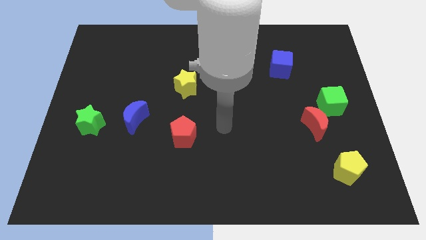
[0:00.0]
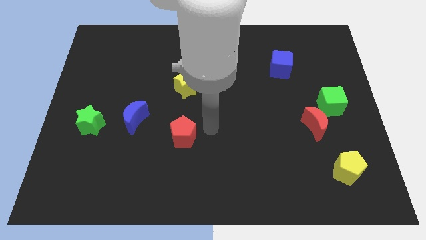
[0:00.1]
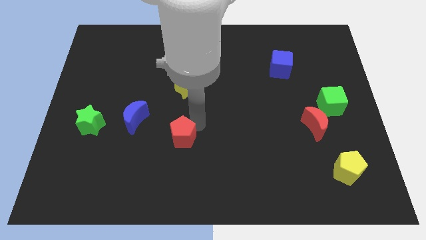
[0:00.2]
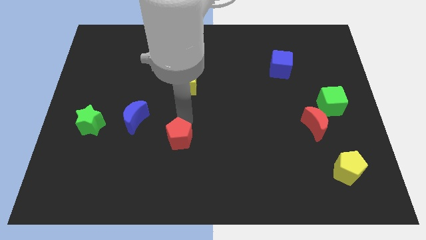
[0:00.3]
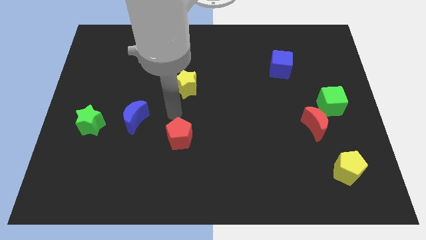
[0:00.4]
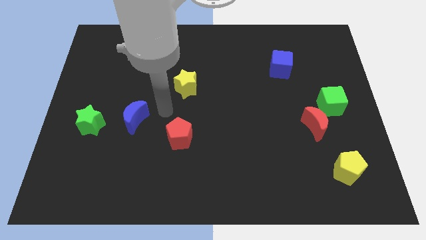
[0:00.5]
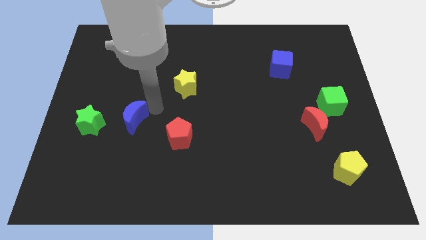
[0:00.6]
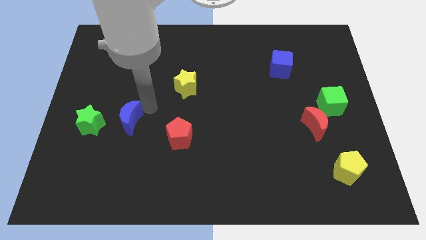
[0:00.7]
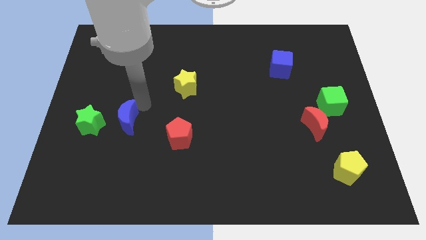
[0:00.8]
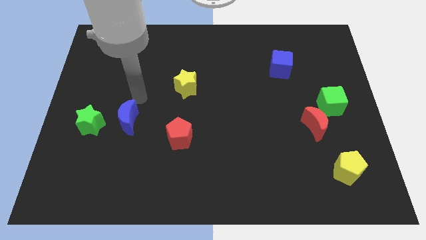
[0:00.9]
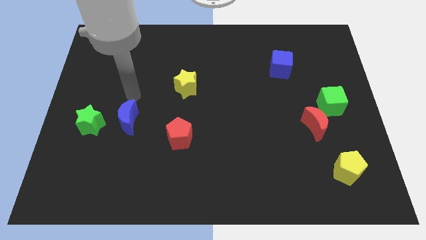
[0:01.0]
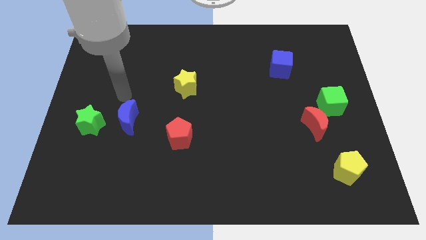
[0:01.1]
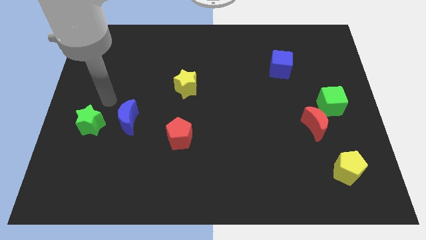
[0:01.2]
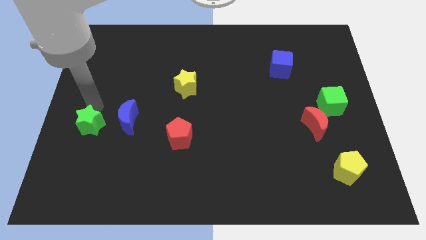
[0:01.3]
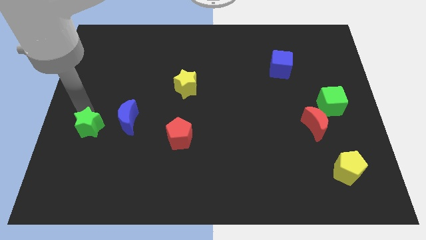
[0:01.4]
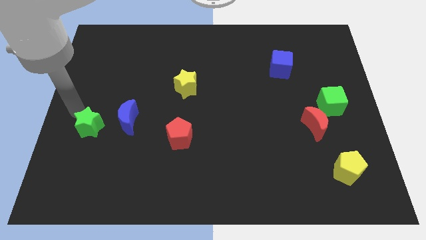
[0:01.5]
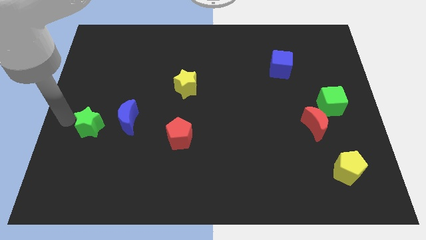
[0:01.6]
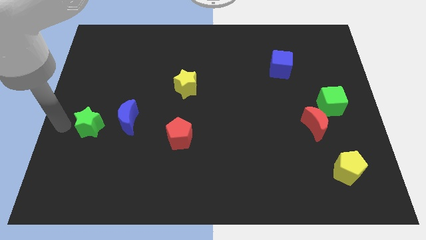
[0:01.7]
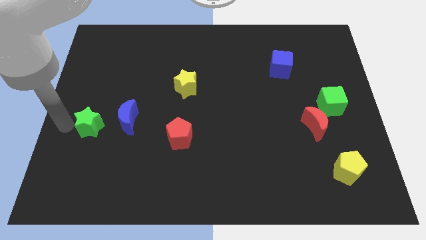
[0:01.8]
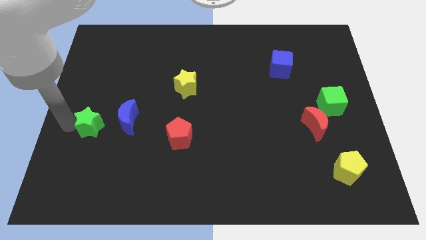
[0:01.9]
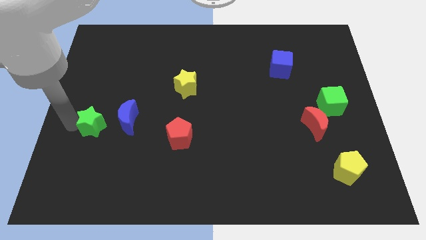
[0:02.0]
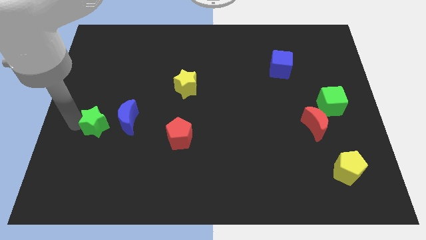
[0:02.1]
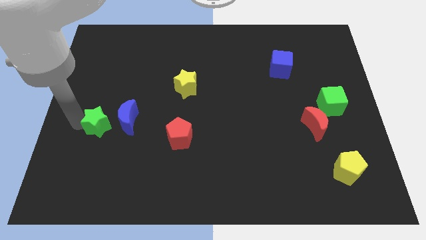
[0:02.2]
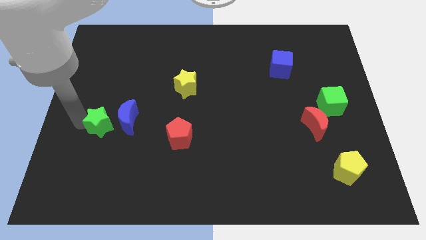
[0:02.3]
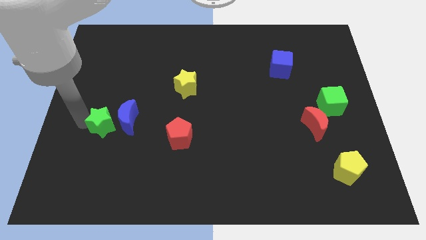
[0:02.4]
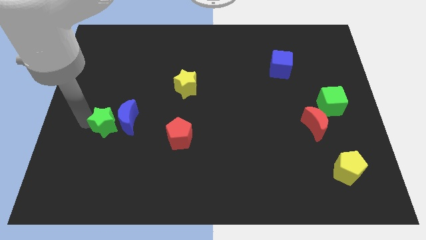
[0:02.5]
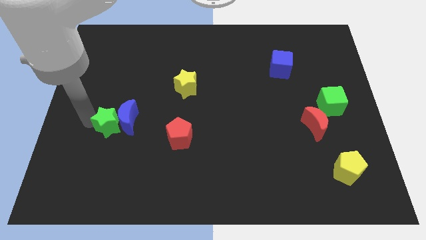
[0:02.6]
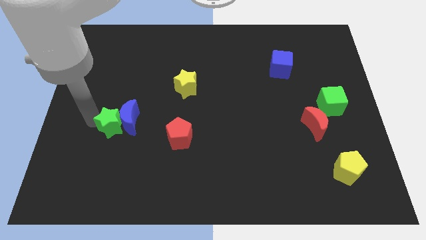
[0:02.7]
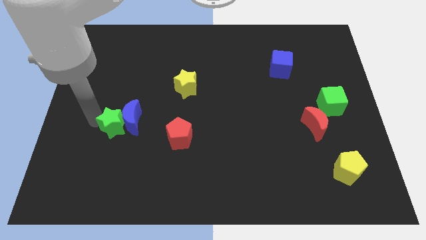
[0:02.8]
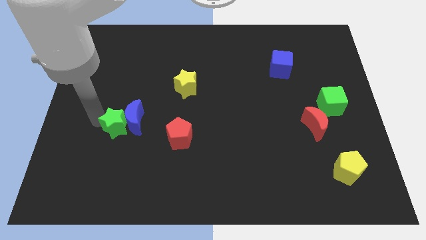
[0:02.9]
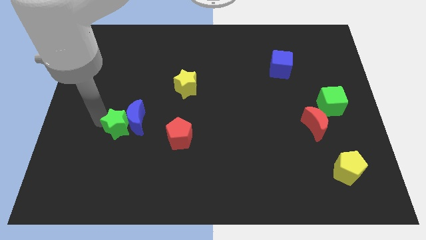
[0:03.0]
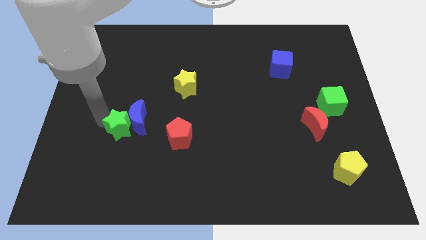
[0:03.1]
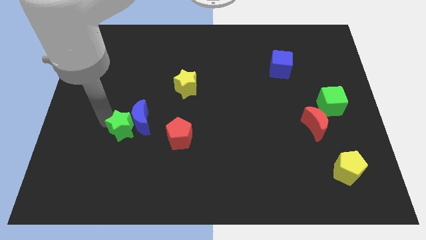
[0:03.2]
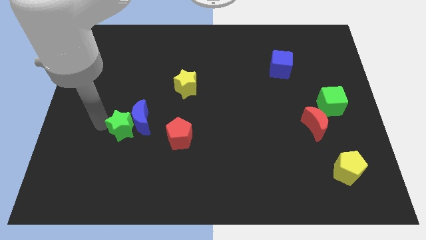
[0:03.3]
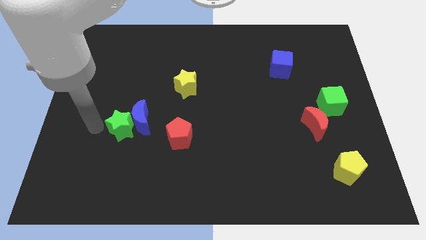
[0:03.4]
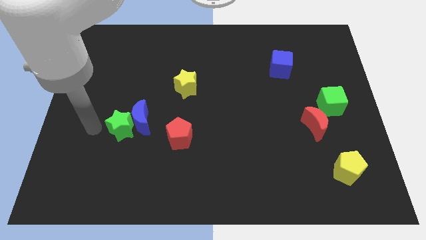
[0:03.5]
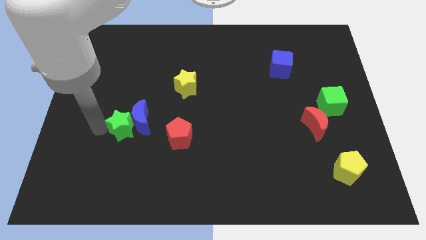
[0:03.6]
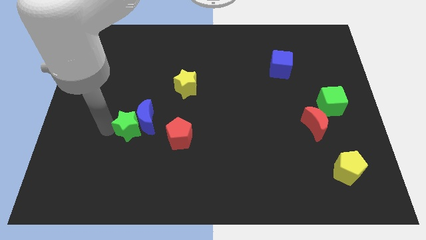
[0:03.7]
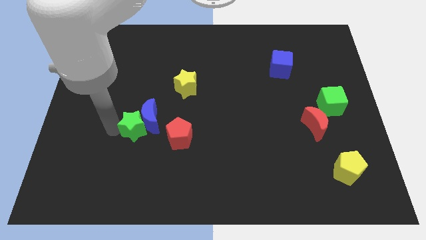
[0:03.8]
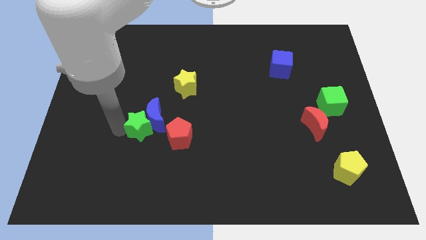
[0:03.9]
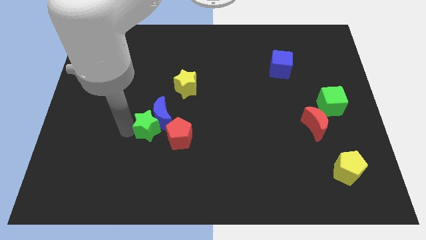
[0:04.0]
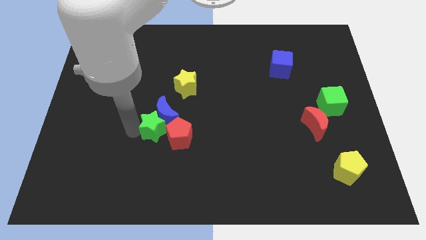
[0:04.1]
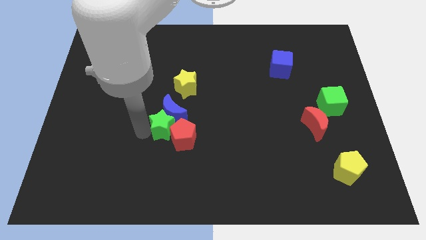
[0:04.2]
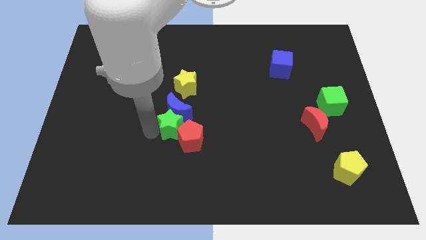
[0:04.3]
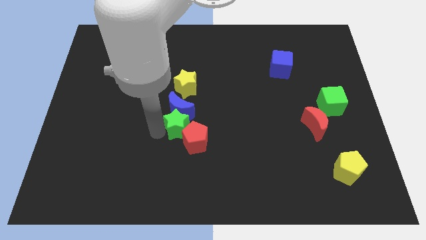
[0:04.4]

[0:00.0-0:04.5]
slide the green star to the right

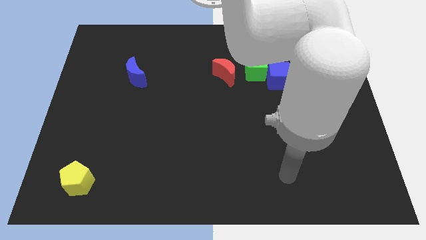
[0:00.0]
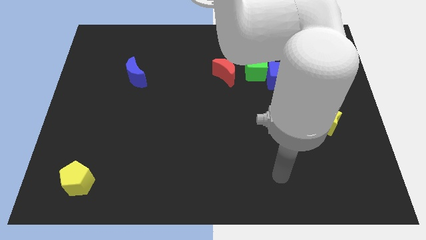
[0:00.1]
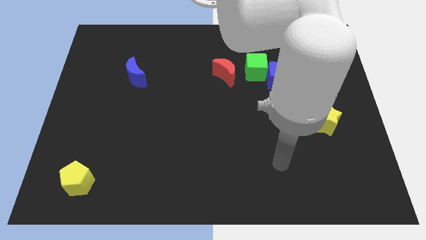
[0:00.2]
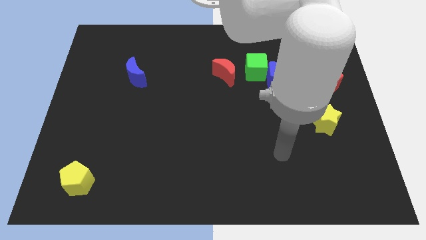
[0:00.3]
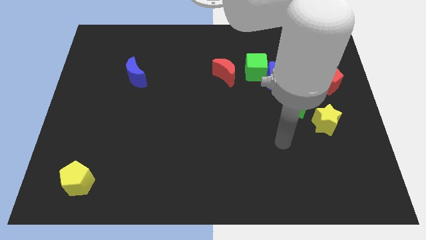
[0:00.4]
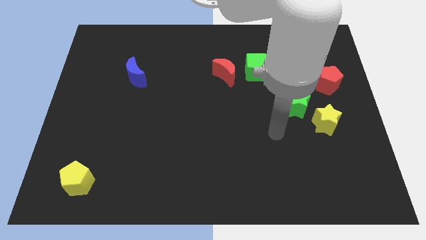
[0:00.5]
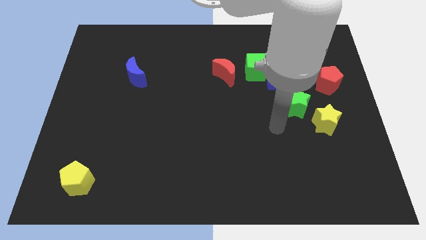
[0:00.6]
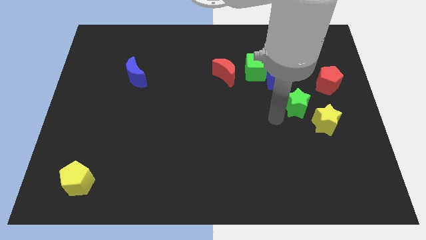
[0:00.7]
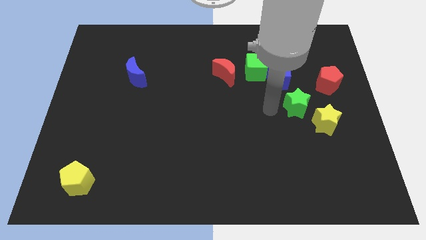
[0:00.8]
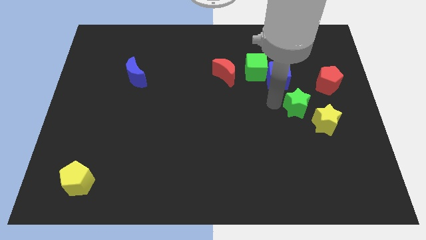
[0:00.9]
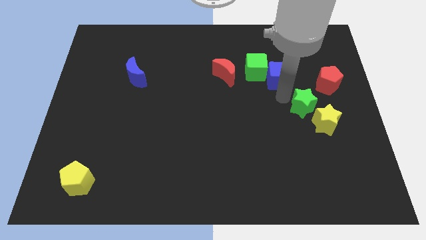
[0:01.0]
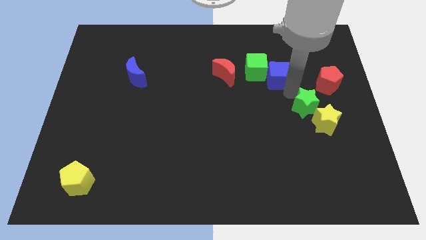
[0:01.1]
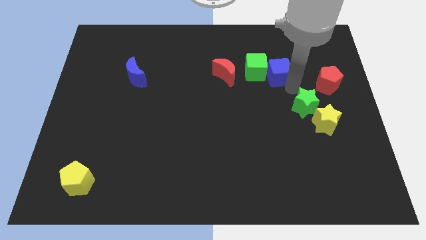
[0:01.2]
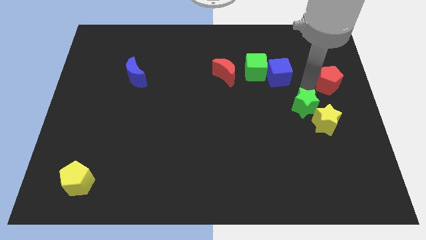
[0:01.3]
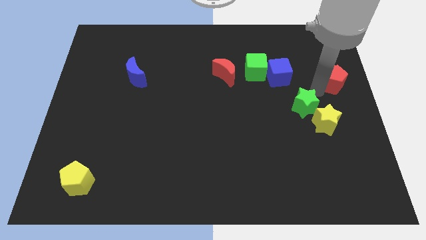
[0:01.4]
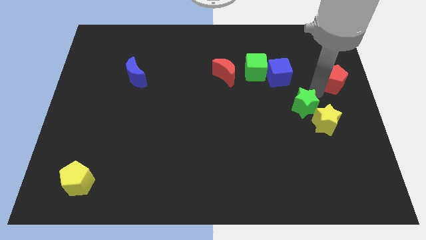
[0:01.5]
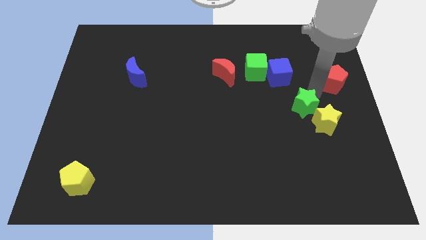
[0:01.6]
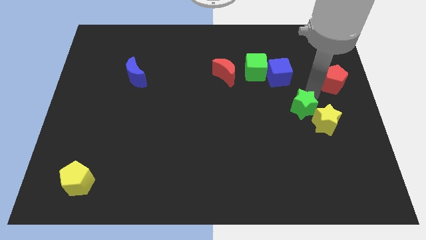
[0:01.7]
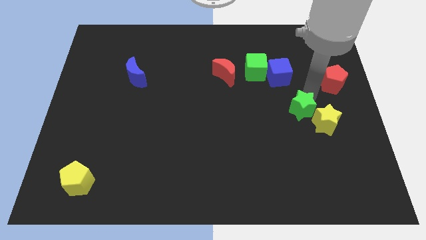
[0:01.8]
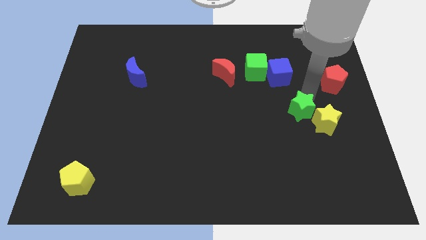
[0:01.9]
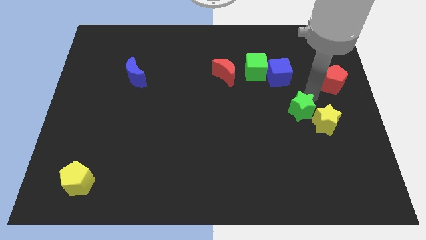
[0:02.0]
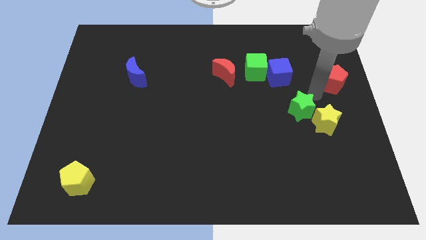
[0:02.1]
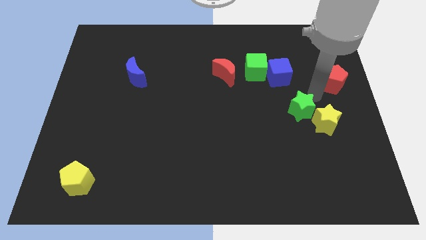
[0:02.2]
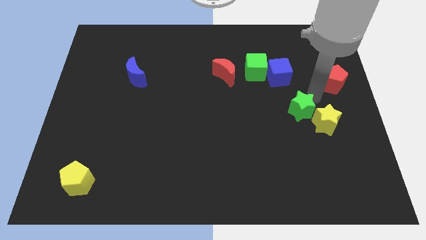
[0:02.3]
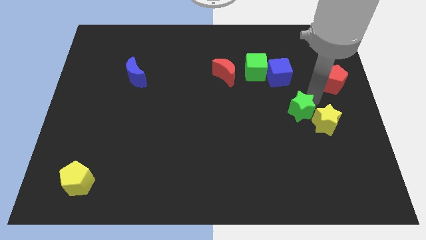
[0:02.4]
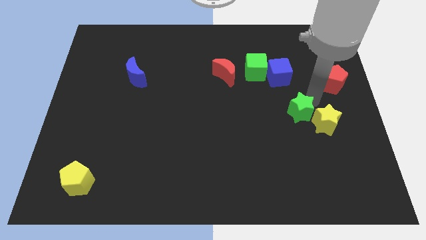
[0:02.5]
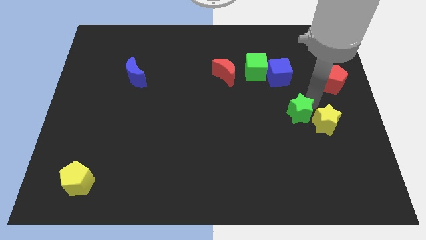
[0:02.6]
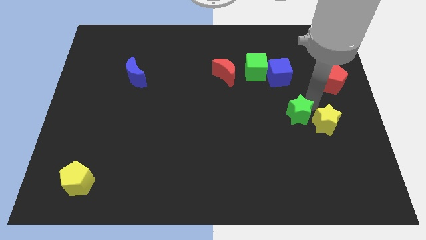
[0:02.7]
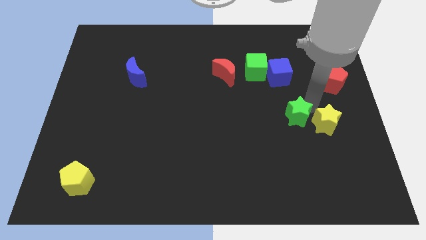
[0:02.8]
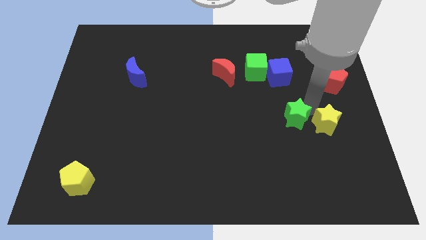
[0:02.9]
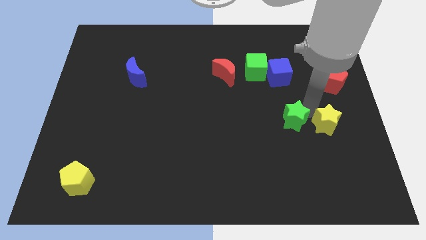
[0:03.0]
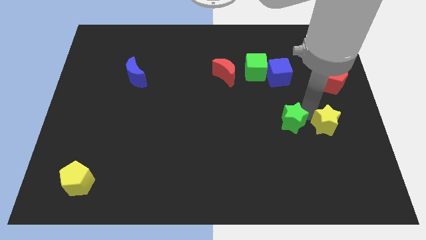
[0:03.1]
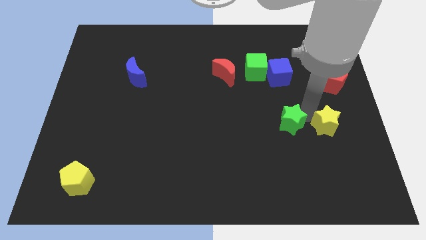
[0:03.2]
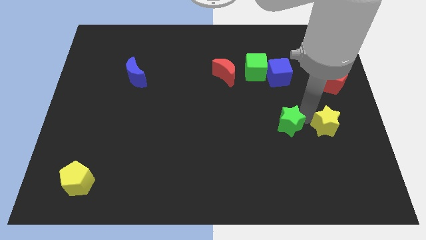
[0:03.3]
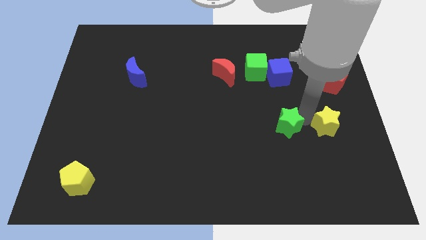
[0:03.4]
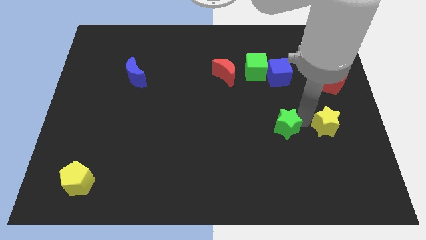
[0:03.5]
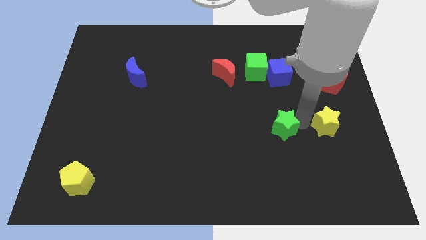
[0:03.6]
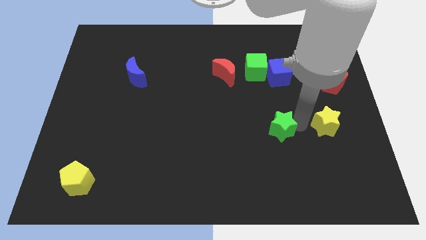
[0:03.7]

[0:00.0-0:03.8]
slide the green star slightly down and left diagonally
